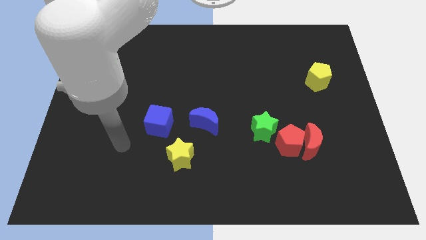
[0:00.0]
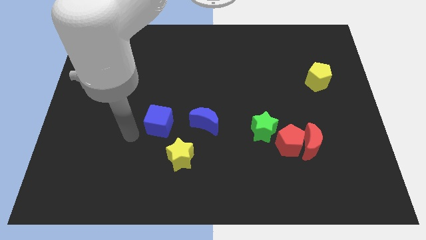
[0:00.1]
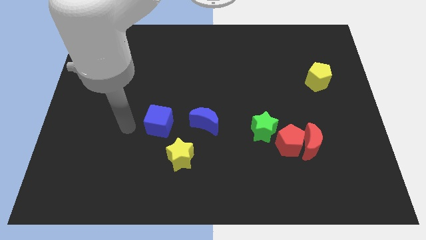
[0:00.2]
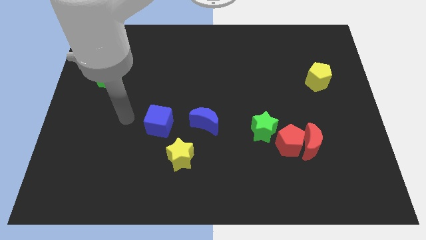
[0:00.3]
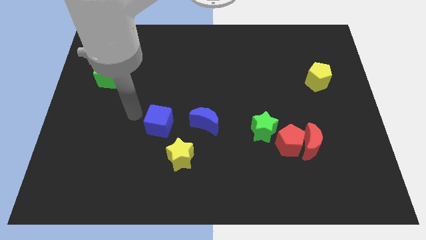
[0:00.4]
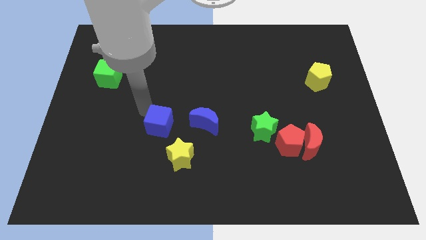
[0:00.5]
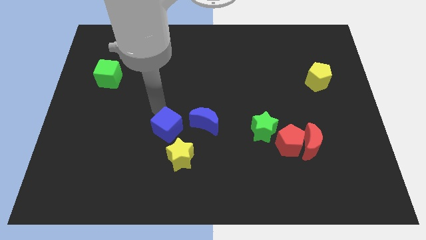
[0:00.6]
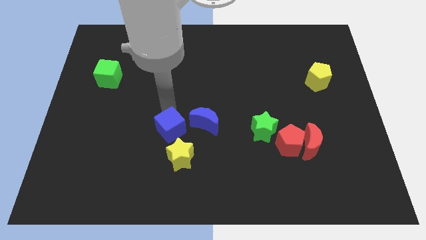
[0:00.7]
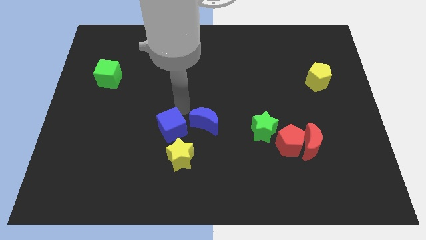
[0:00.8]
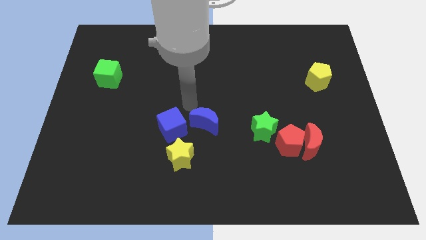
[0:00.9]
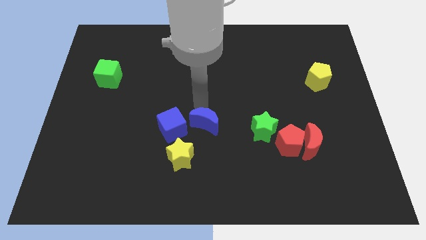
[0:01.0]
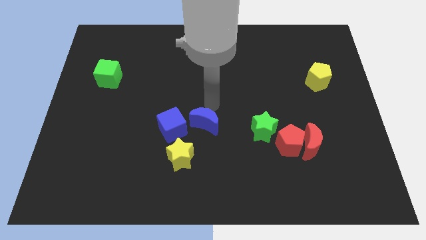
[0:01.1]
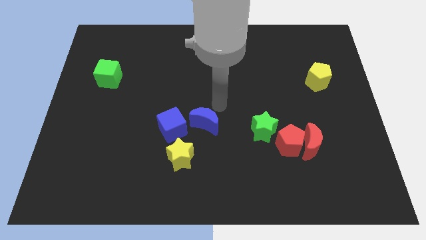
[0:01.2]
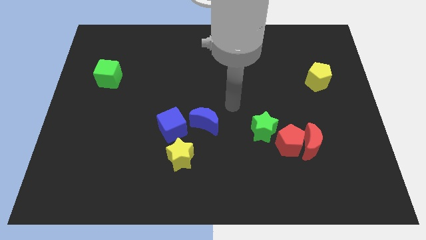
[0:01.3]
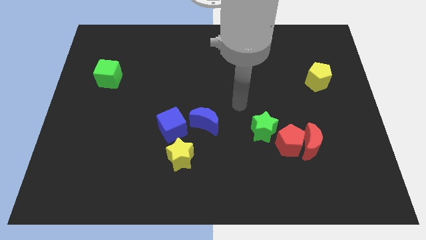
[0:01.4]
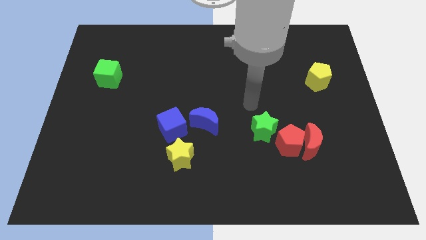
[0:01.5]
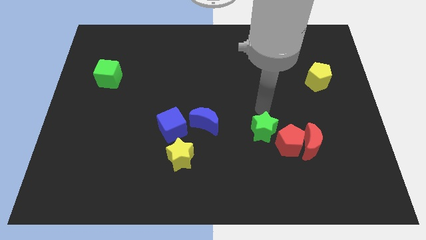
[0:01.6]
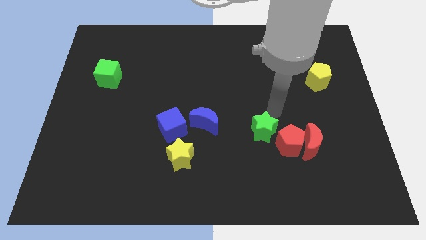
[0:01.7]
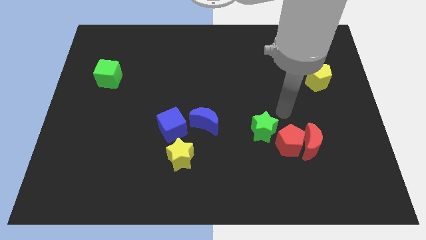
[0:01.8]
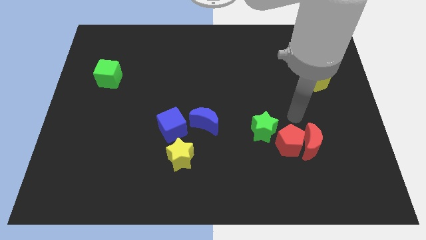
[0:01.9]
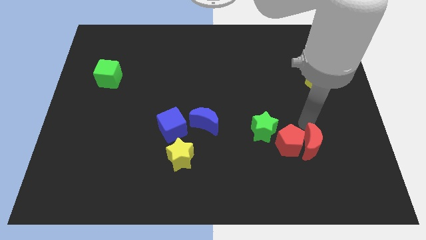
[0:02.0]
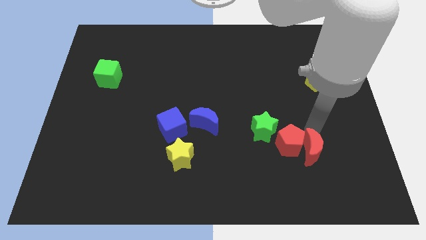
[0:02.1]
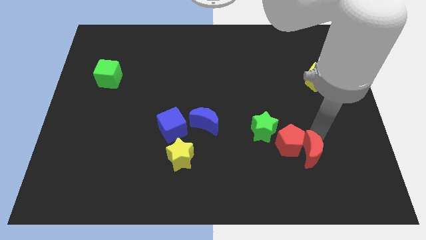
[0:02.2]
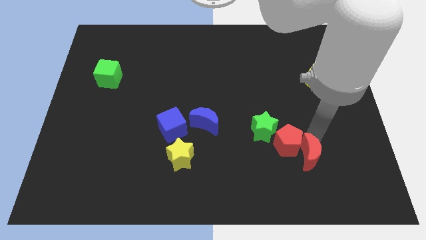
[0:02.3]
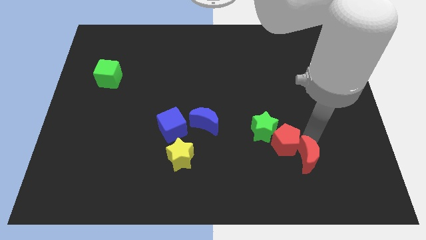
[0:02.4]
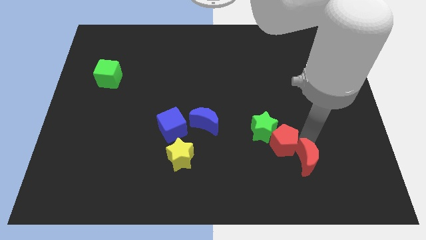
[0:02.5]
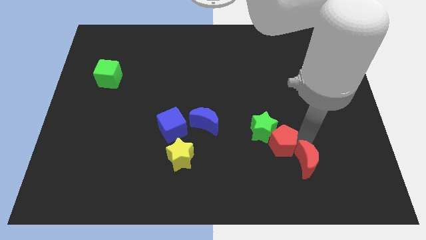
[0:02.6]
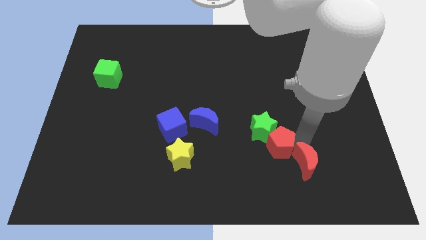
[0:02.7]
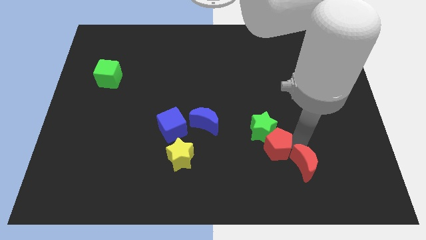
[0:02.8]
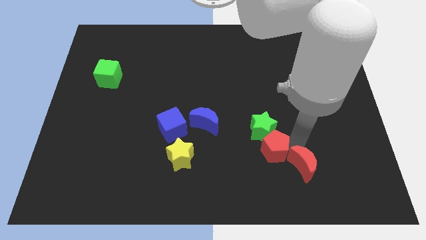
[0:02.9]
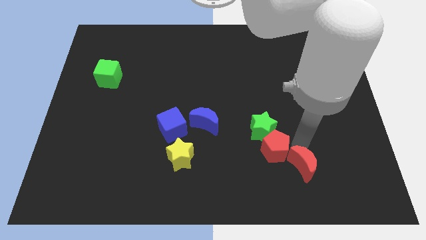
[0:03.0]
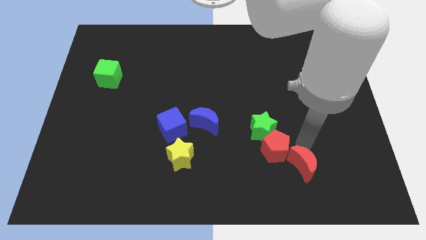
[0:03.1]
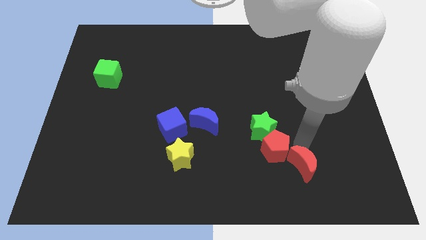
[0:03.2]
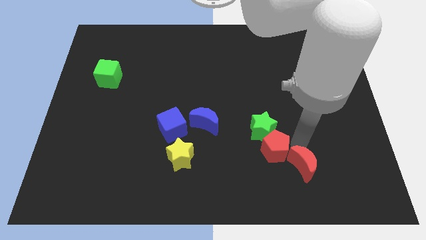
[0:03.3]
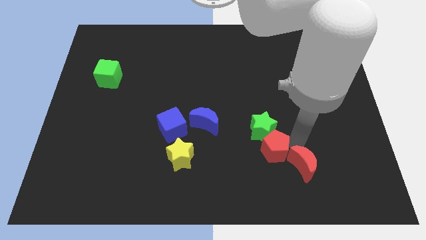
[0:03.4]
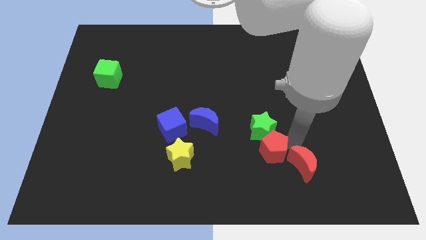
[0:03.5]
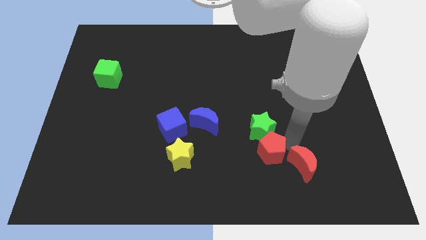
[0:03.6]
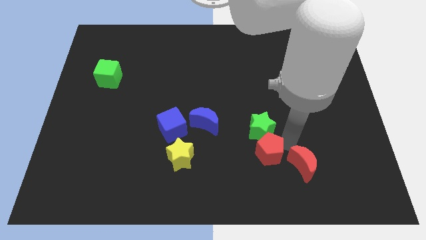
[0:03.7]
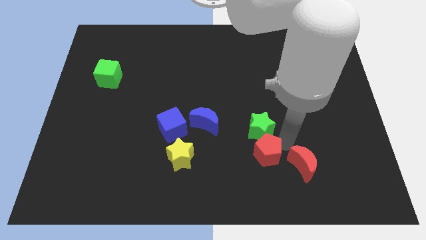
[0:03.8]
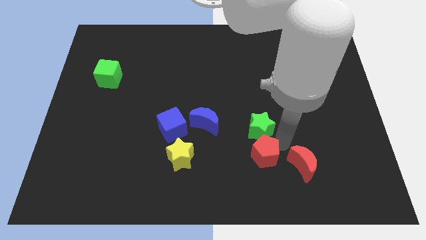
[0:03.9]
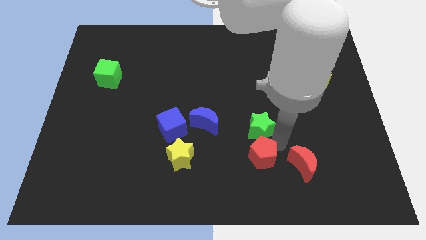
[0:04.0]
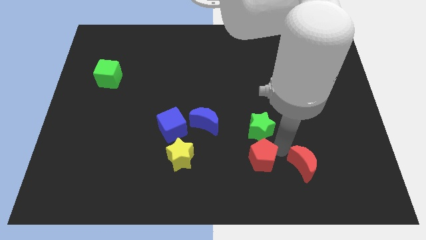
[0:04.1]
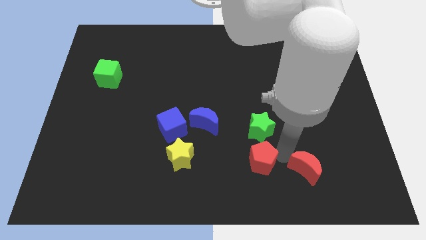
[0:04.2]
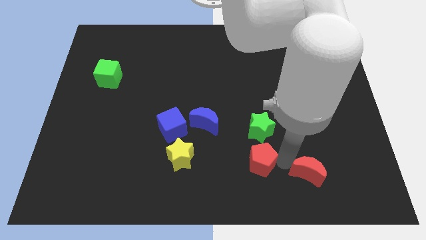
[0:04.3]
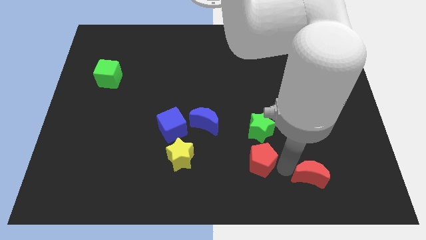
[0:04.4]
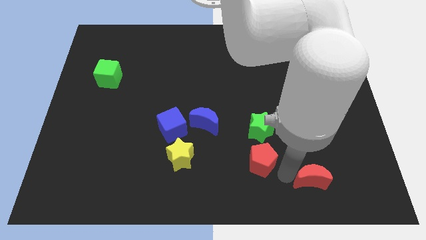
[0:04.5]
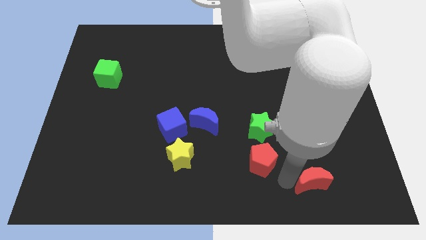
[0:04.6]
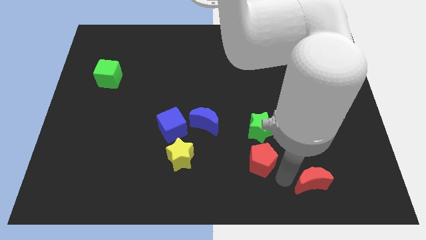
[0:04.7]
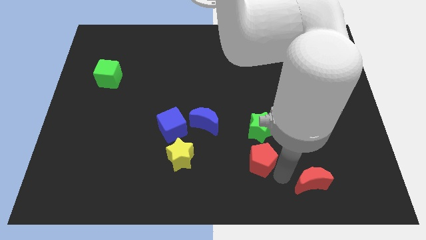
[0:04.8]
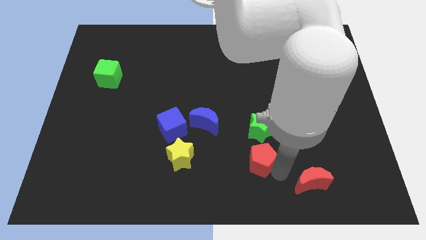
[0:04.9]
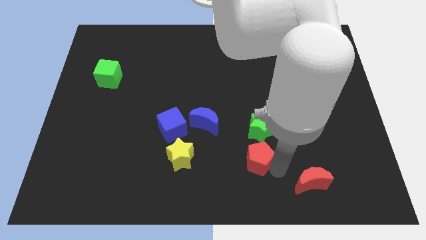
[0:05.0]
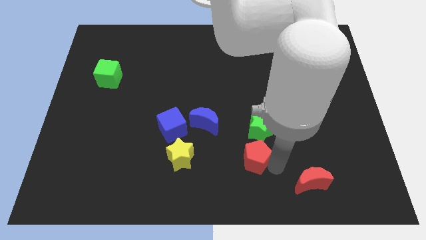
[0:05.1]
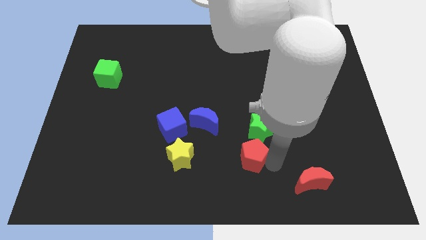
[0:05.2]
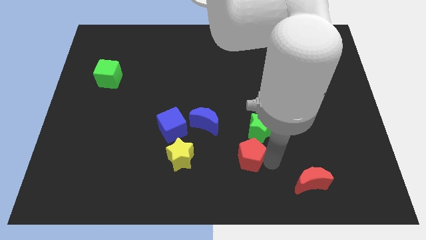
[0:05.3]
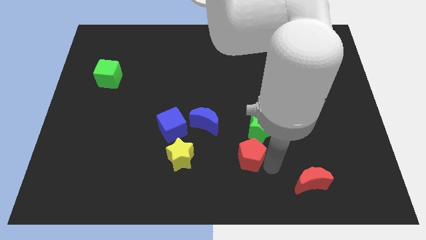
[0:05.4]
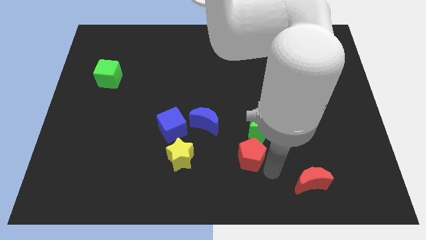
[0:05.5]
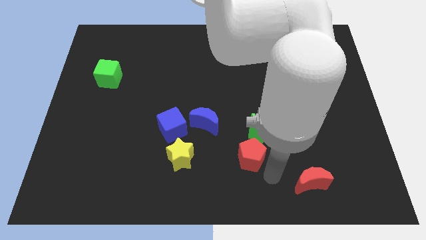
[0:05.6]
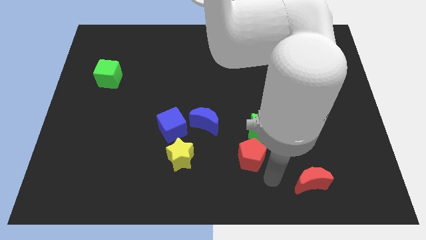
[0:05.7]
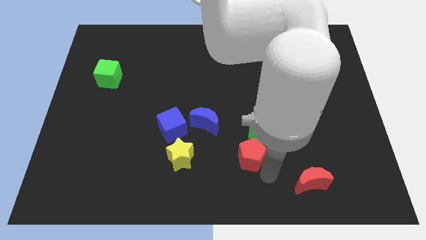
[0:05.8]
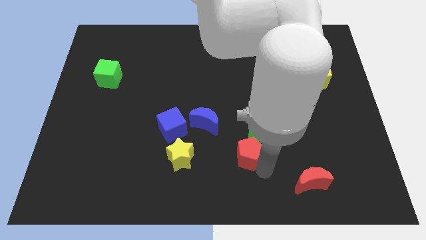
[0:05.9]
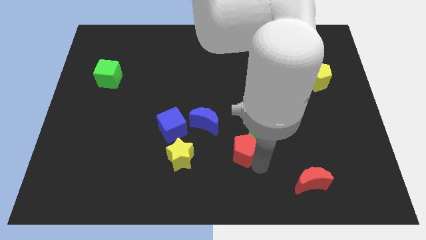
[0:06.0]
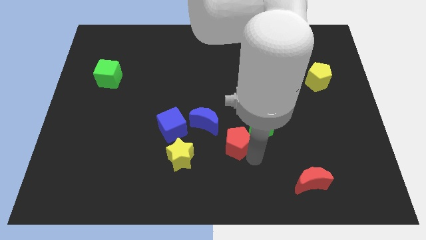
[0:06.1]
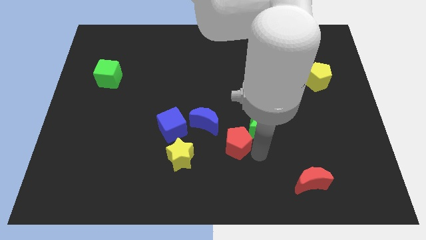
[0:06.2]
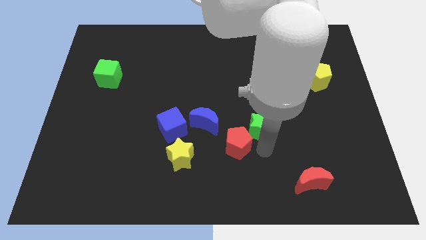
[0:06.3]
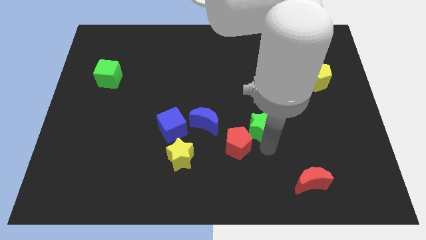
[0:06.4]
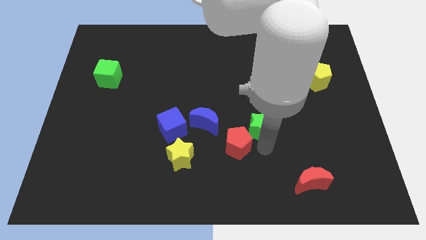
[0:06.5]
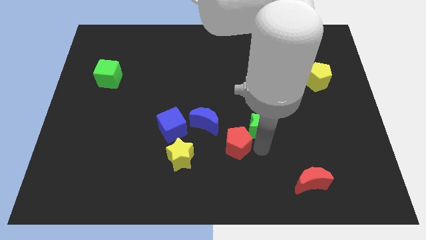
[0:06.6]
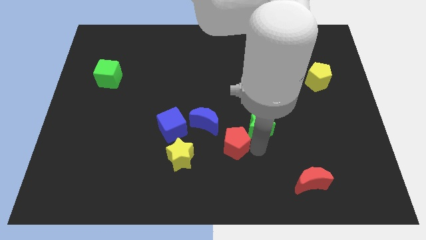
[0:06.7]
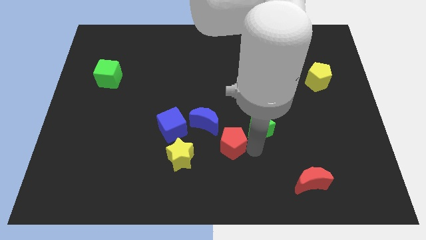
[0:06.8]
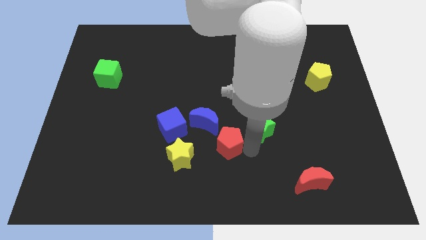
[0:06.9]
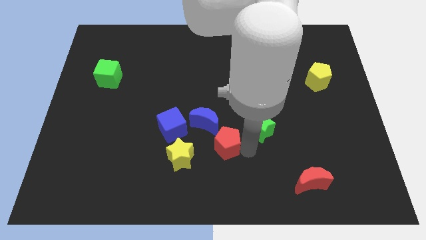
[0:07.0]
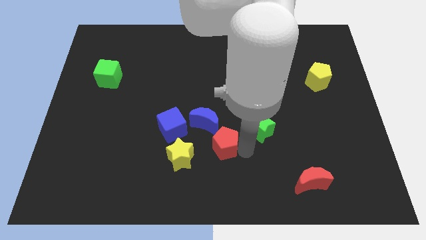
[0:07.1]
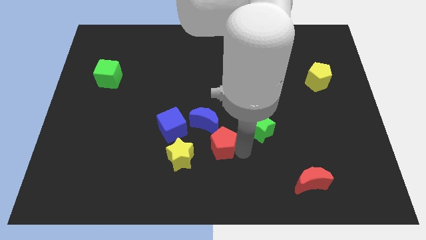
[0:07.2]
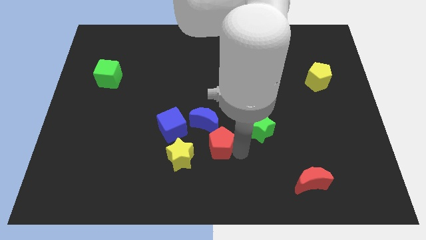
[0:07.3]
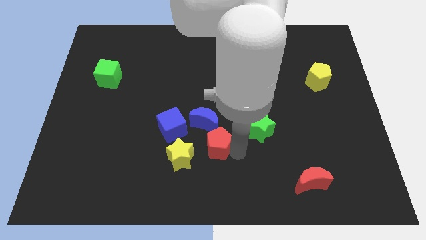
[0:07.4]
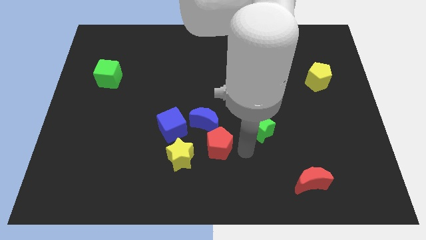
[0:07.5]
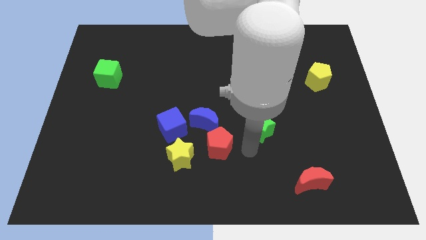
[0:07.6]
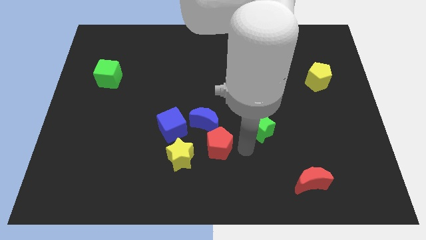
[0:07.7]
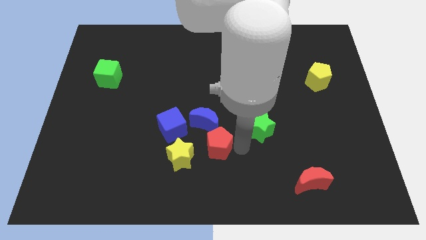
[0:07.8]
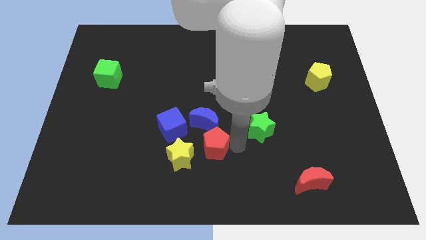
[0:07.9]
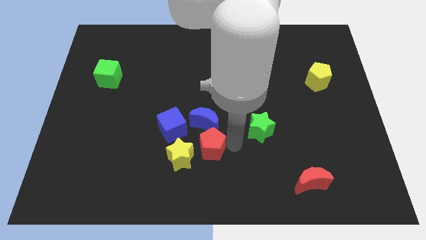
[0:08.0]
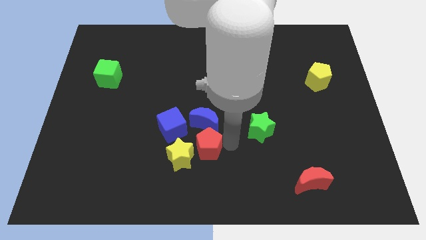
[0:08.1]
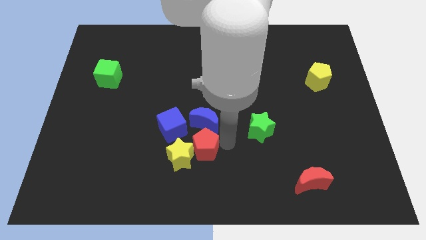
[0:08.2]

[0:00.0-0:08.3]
put the red pentagon to the bottom left of the blue moon
